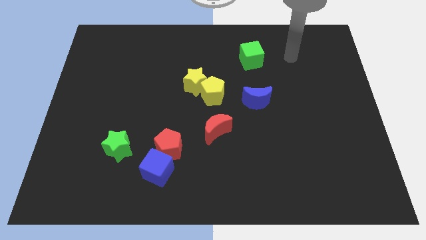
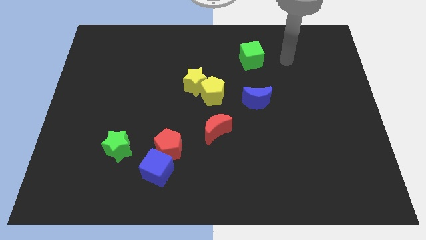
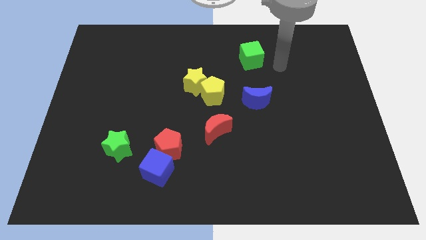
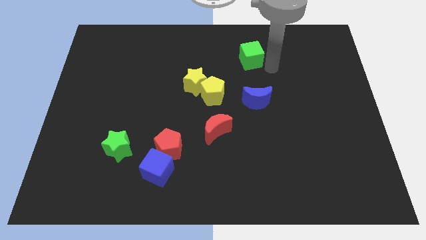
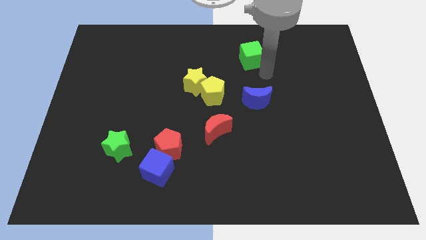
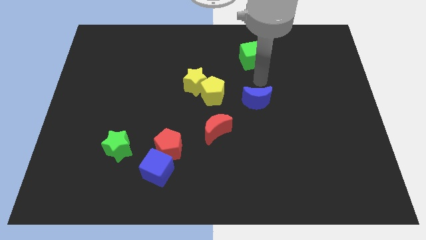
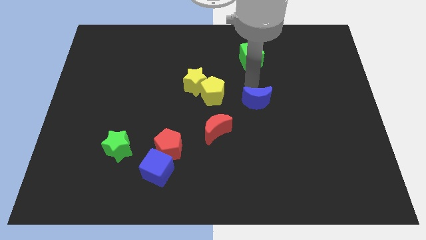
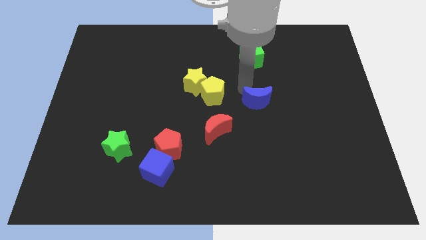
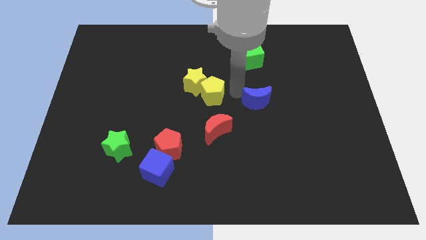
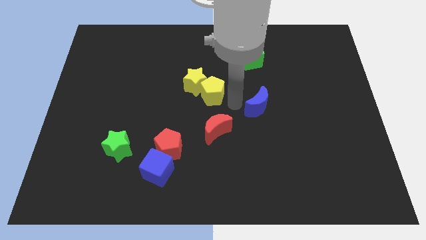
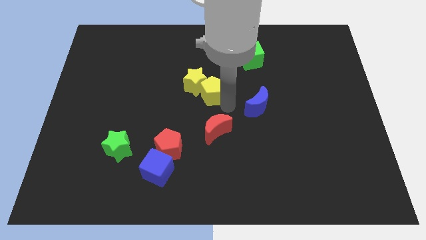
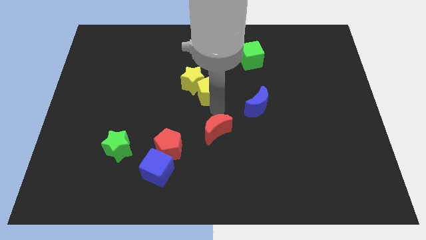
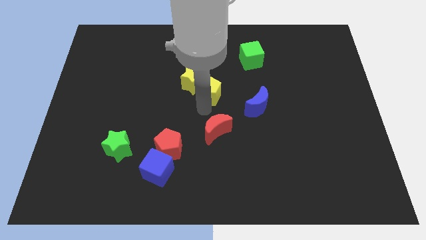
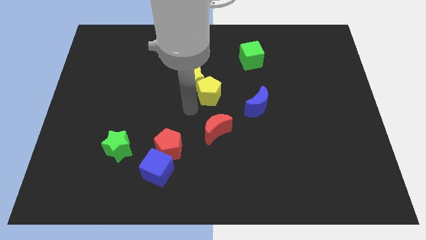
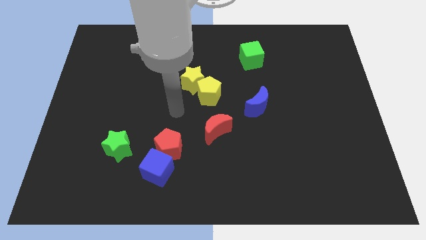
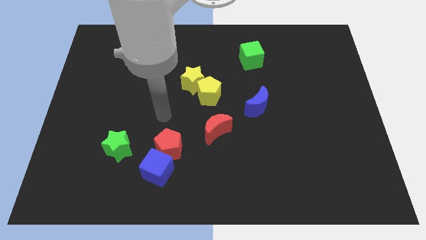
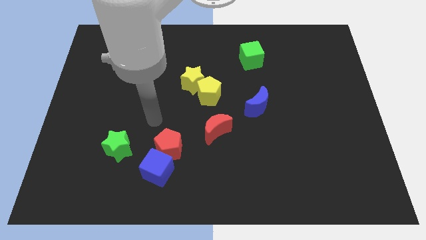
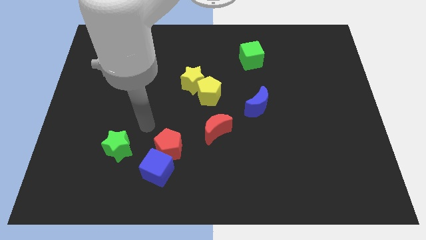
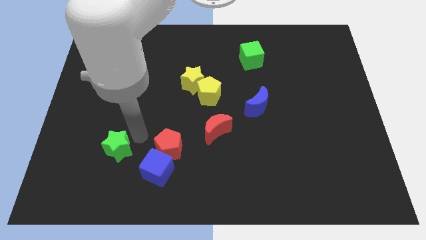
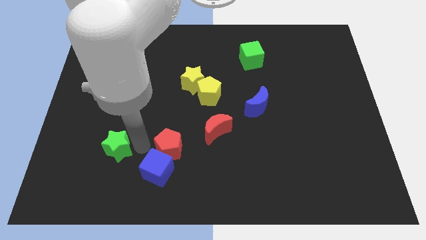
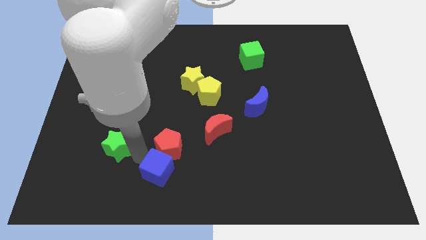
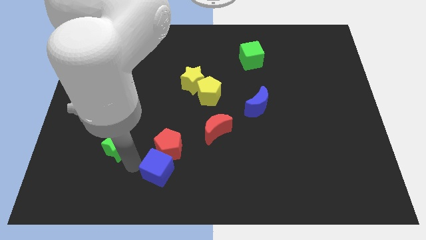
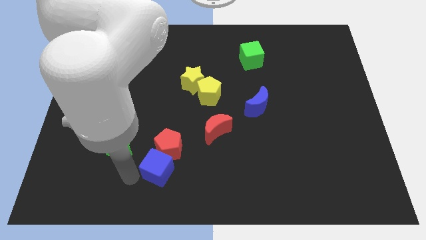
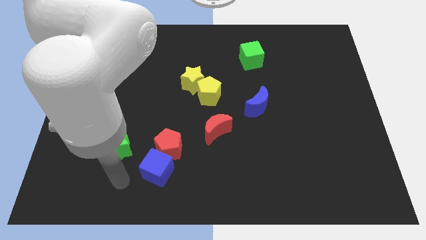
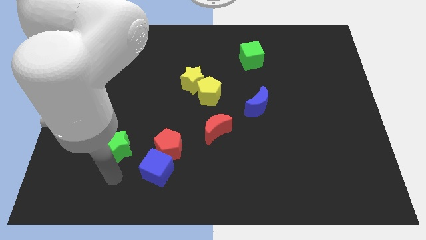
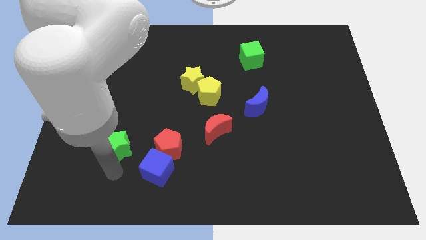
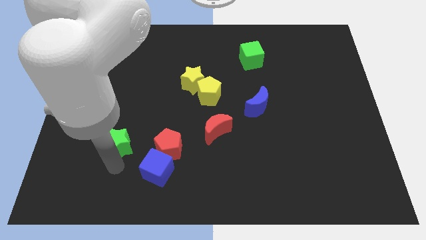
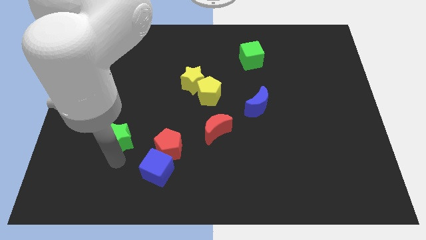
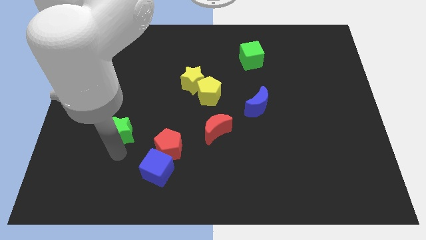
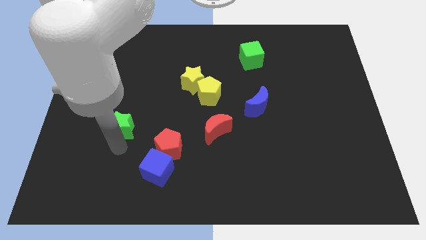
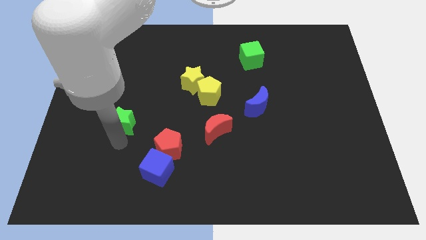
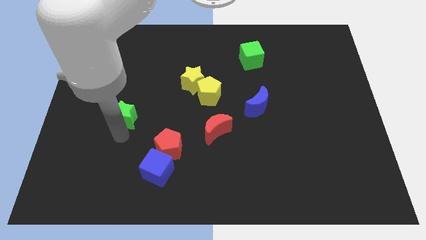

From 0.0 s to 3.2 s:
slide the green star a little up

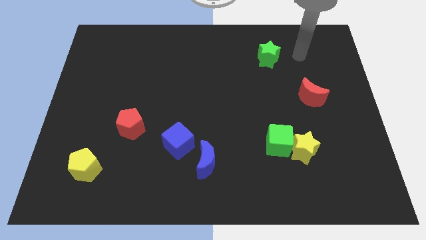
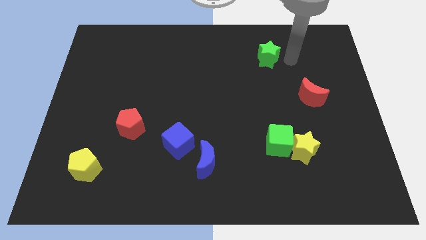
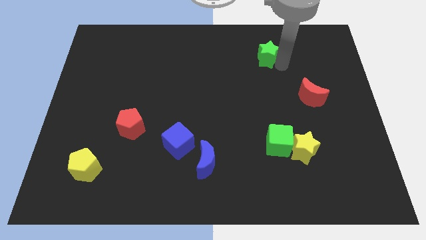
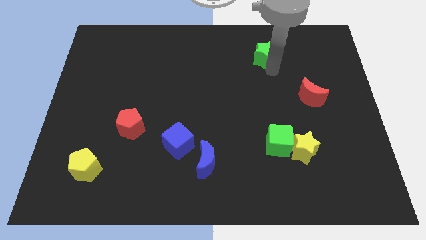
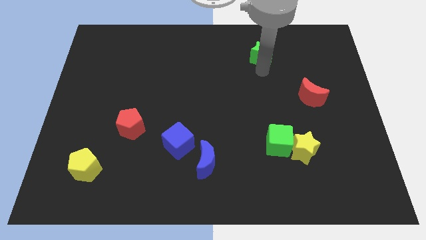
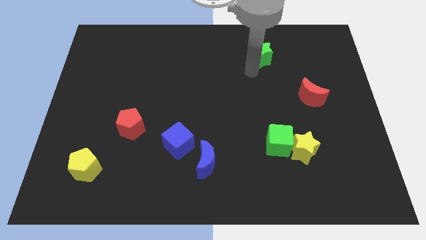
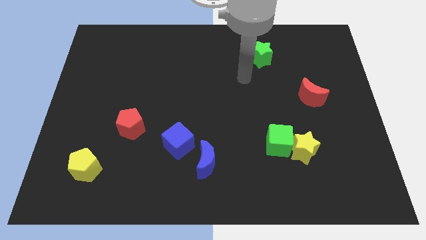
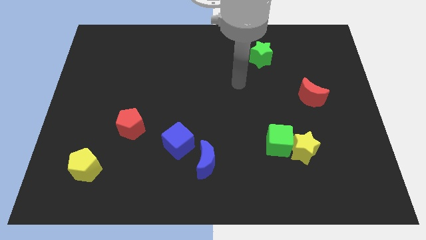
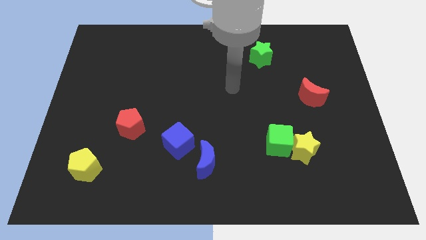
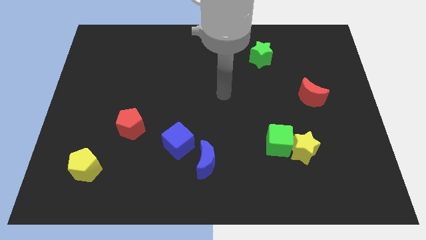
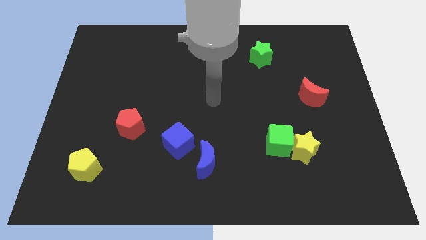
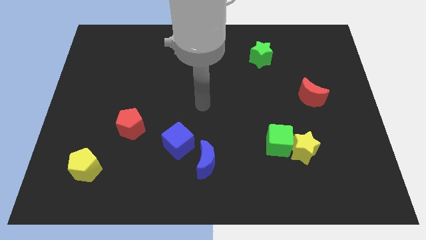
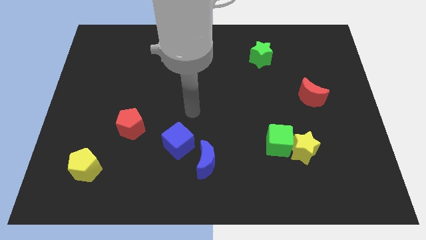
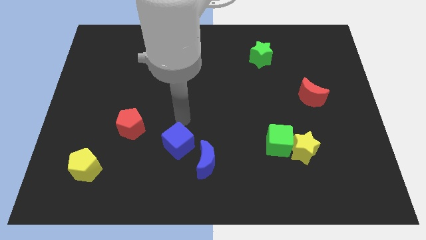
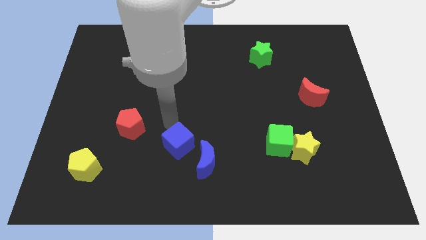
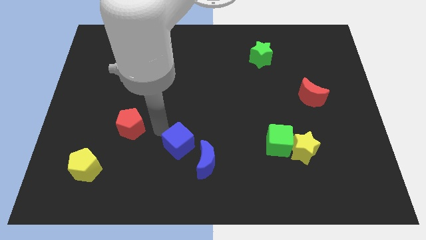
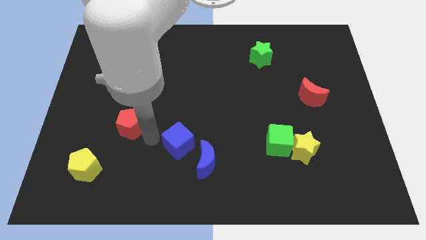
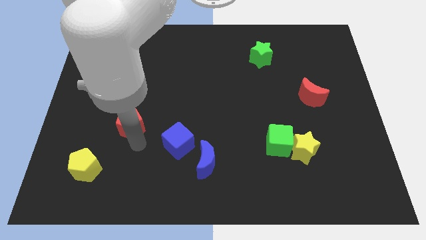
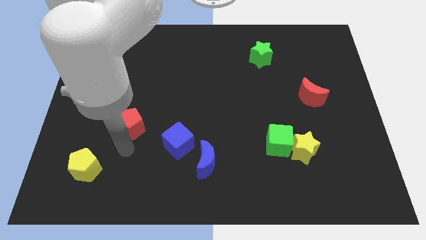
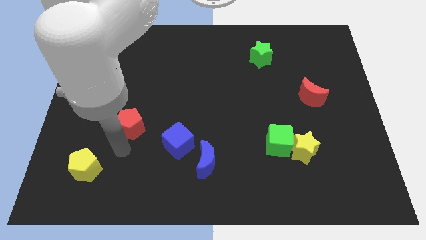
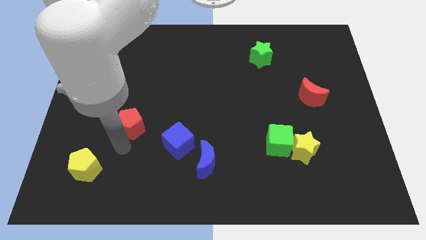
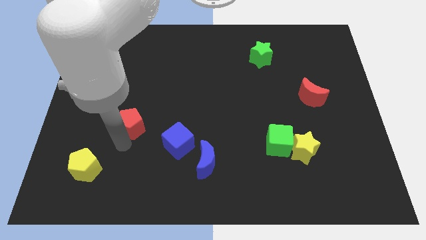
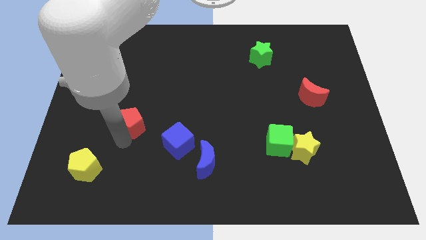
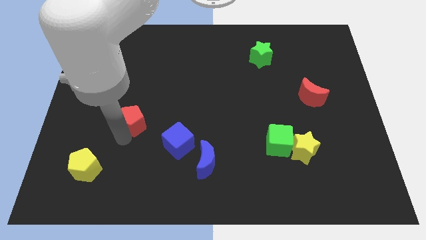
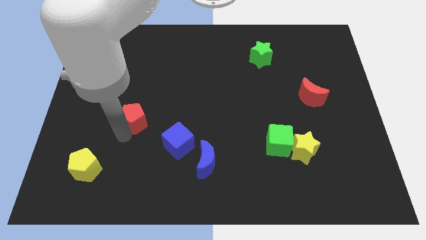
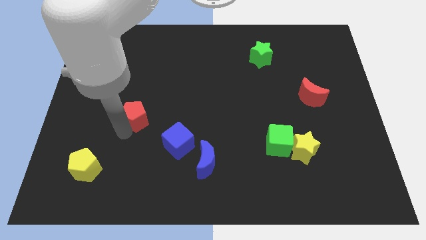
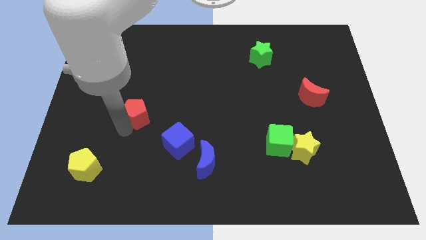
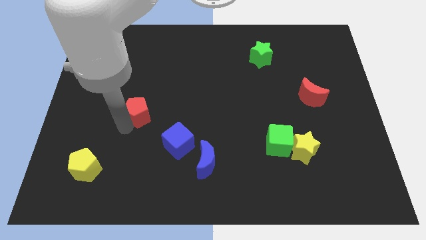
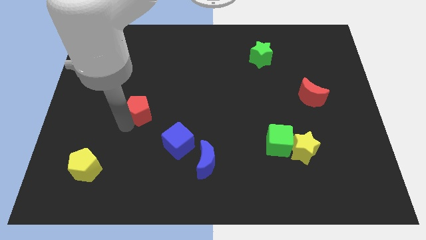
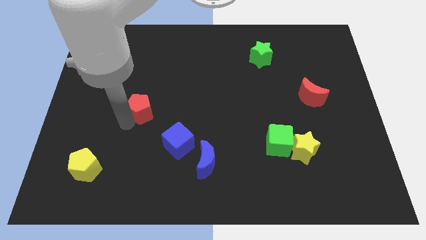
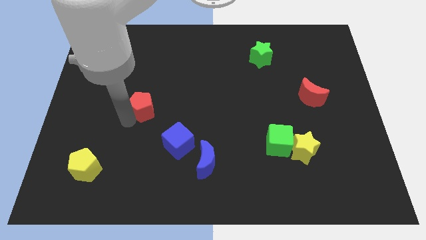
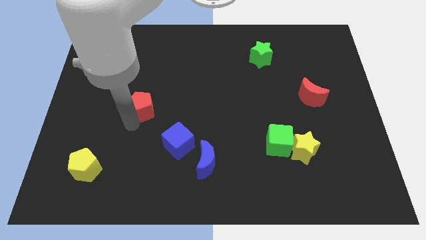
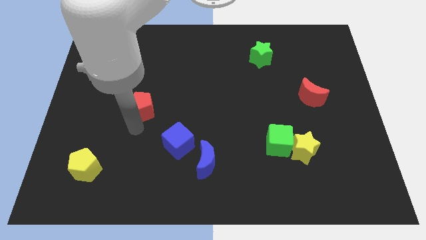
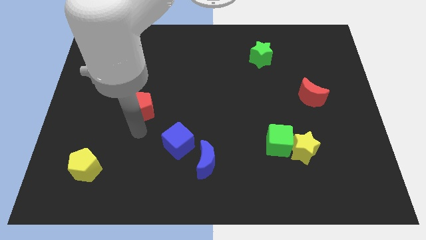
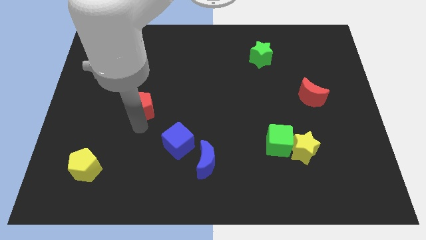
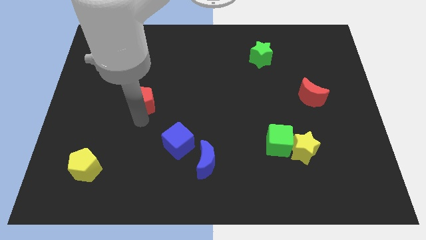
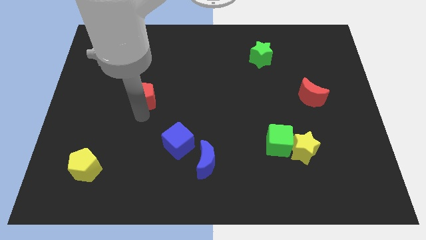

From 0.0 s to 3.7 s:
push the red pentagon a bit upwards

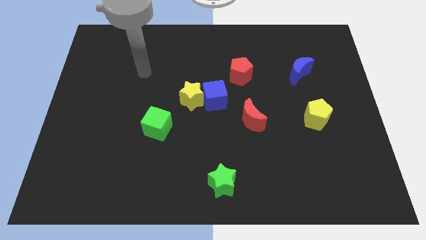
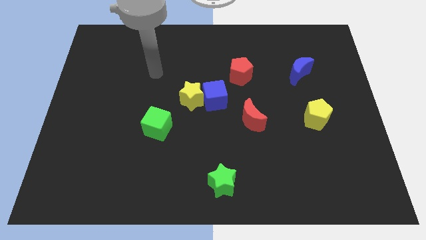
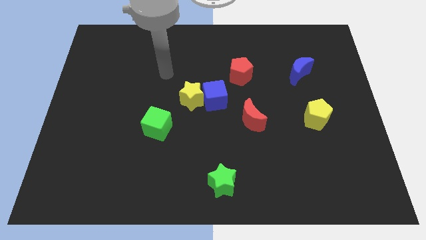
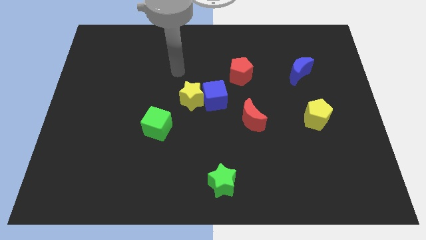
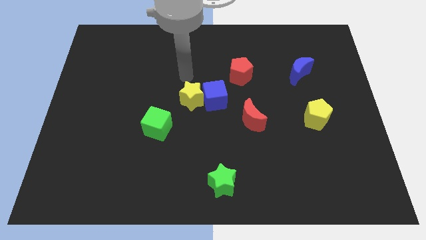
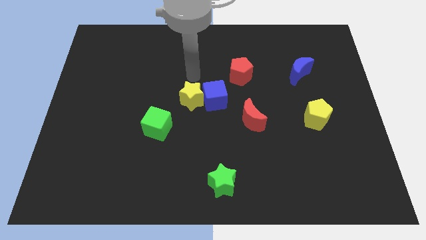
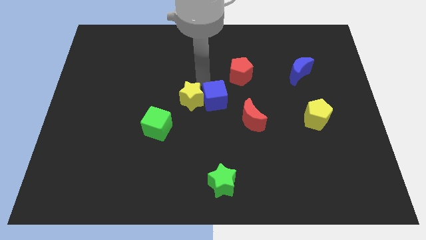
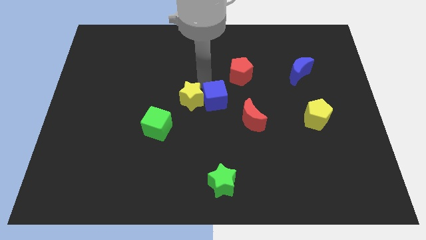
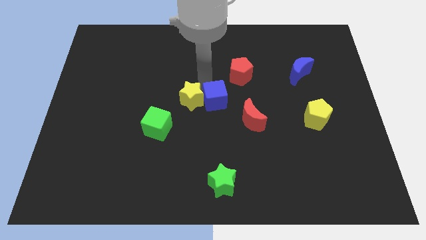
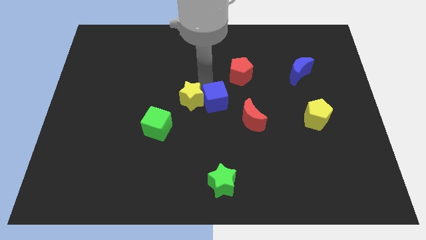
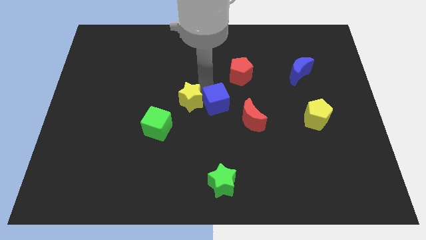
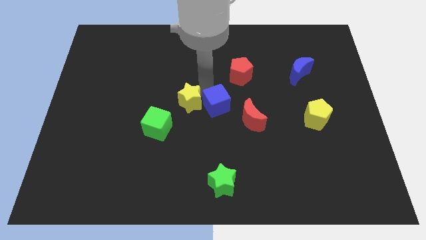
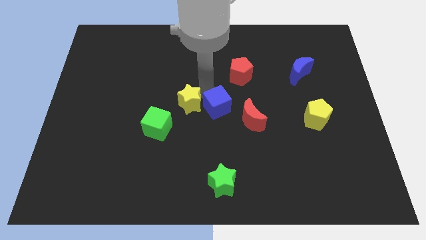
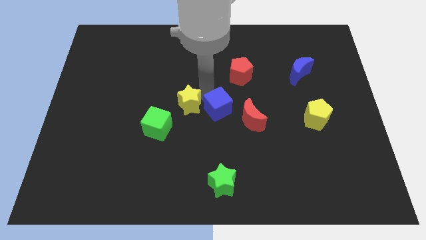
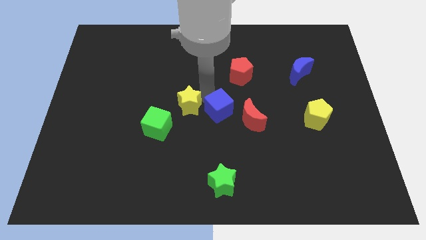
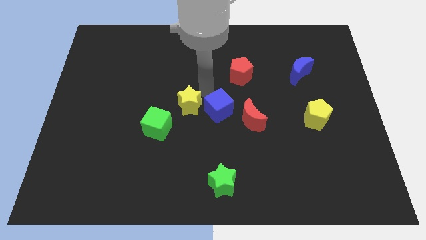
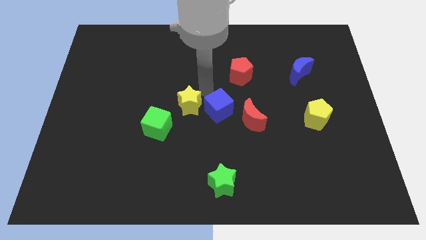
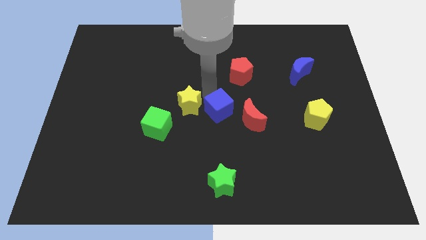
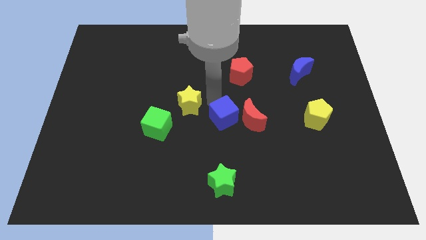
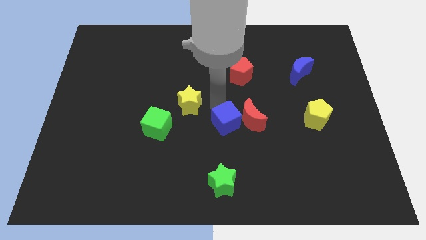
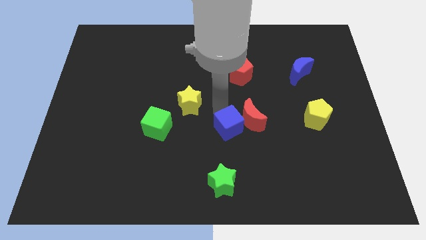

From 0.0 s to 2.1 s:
slightly push the blue cube diagonally down and to the right
